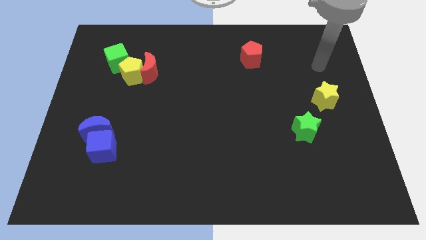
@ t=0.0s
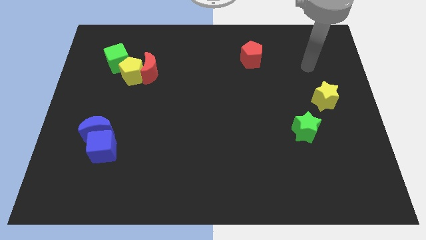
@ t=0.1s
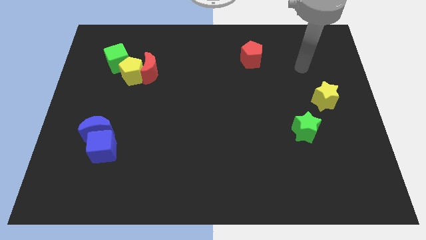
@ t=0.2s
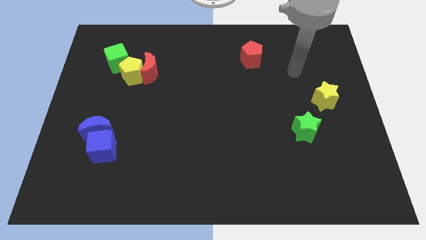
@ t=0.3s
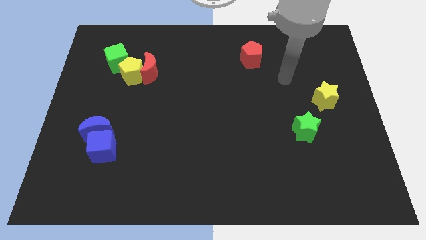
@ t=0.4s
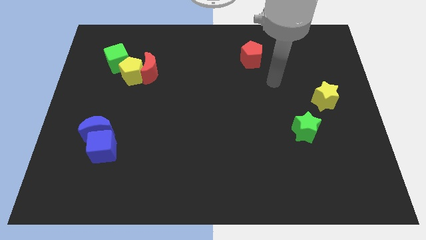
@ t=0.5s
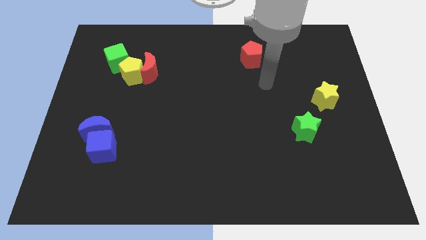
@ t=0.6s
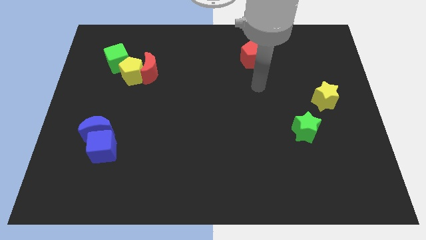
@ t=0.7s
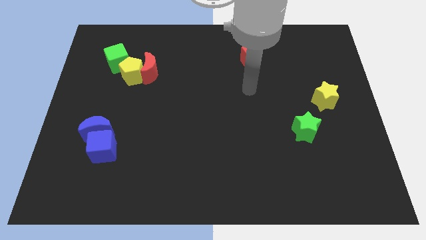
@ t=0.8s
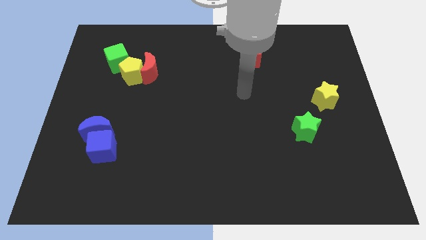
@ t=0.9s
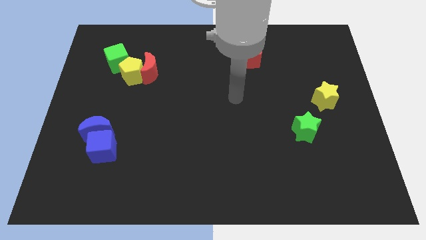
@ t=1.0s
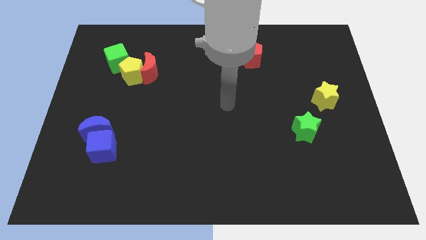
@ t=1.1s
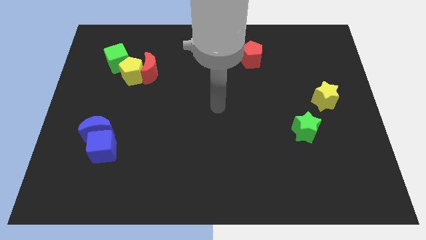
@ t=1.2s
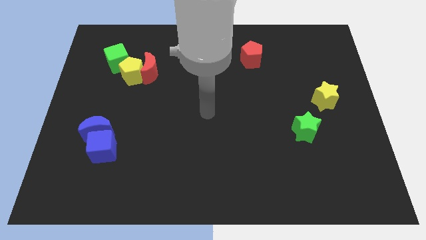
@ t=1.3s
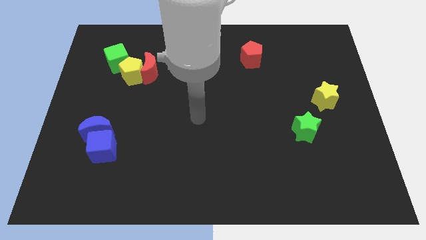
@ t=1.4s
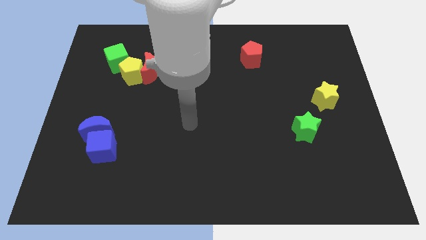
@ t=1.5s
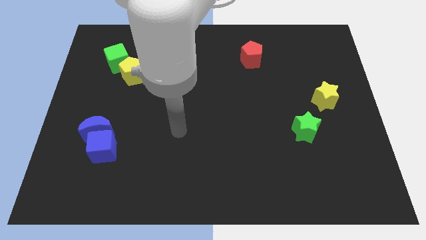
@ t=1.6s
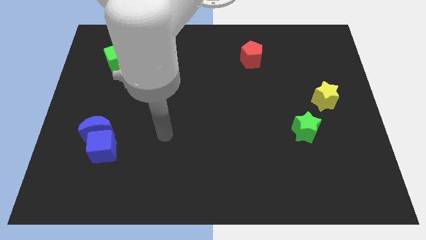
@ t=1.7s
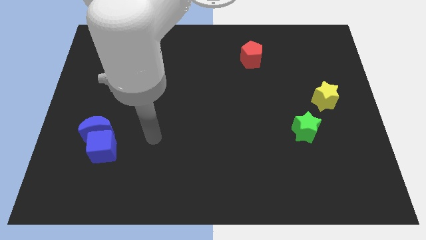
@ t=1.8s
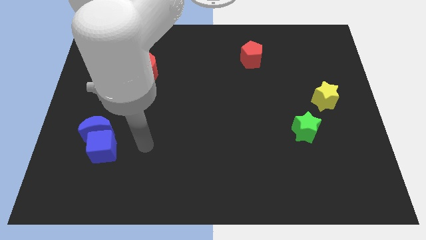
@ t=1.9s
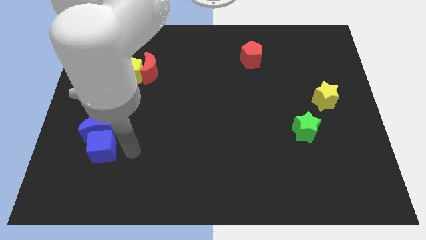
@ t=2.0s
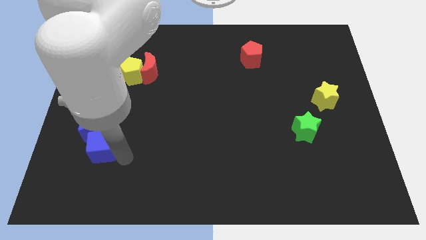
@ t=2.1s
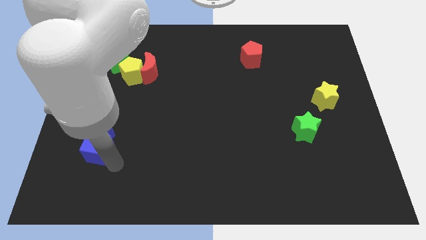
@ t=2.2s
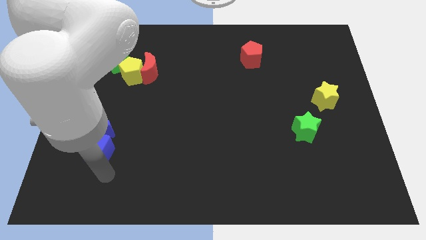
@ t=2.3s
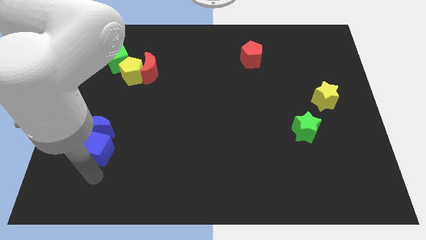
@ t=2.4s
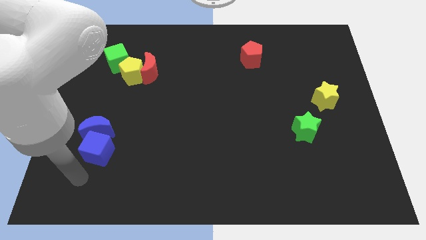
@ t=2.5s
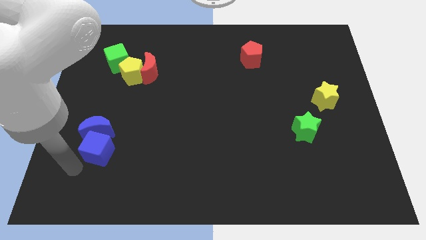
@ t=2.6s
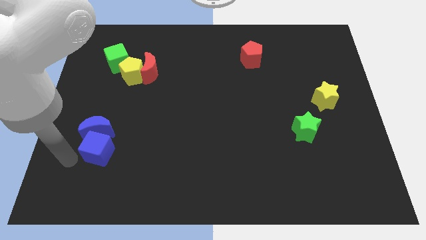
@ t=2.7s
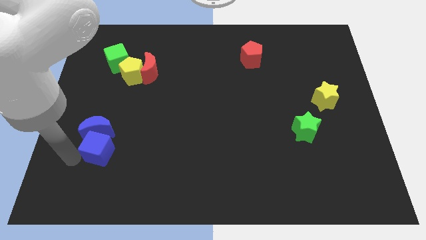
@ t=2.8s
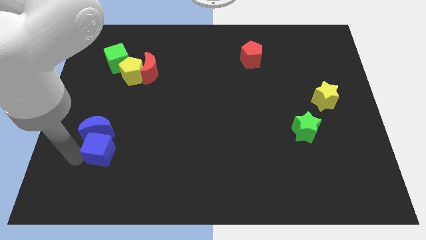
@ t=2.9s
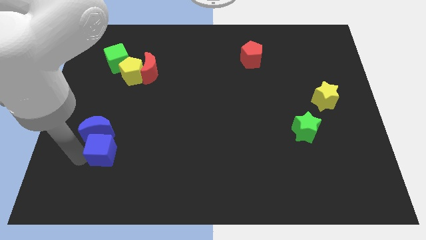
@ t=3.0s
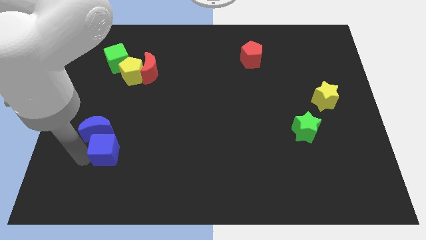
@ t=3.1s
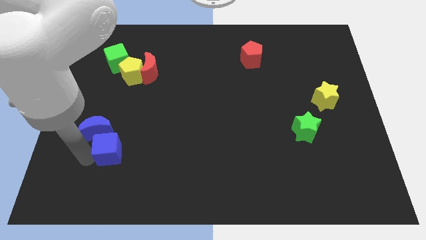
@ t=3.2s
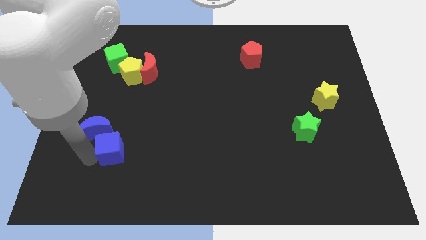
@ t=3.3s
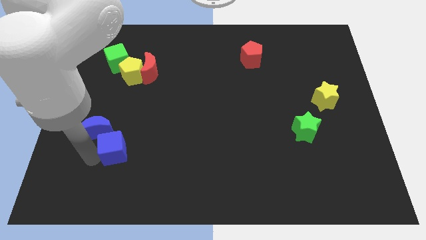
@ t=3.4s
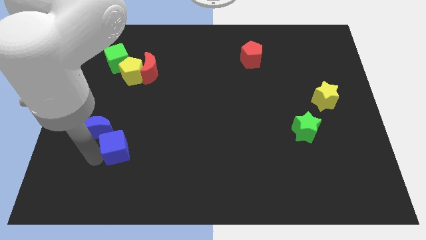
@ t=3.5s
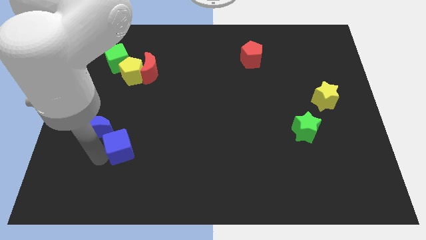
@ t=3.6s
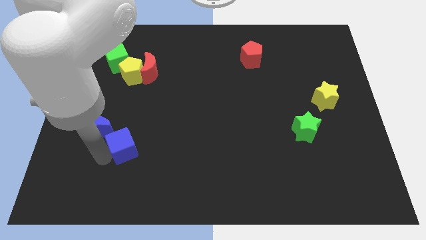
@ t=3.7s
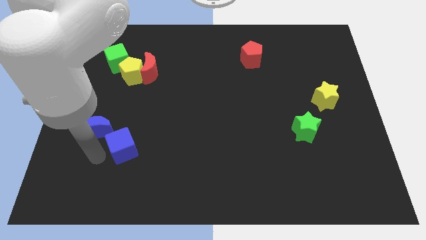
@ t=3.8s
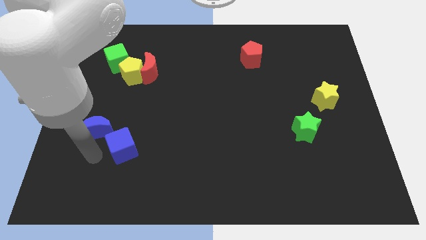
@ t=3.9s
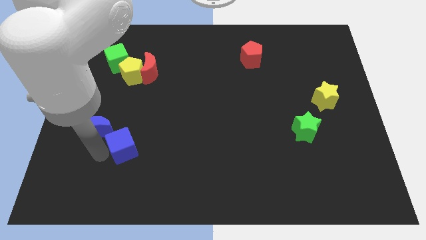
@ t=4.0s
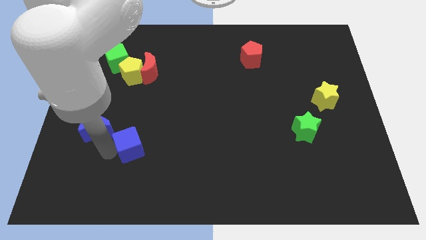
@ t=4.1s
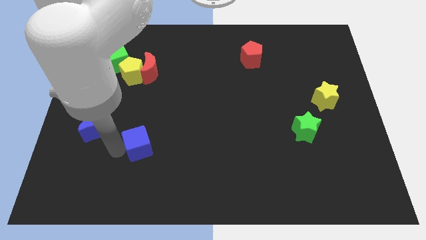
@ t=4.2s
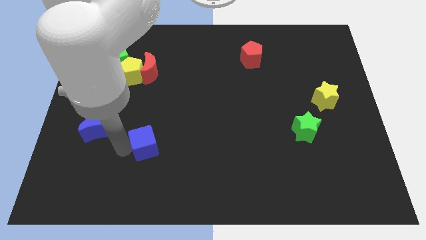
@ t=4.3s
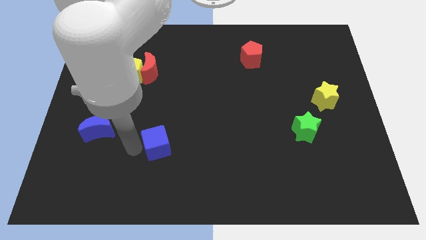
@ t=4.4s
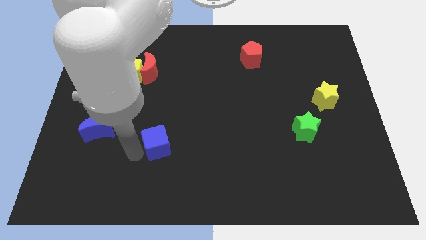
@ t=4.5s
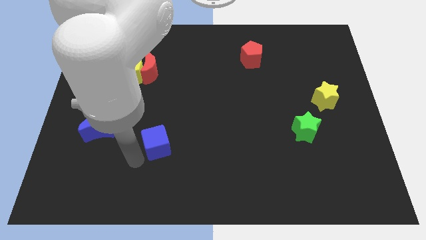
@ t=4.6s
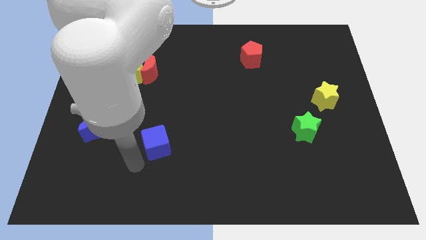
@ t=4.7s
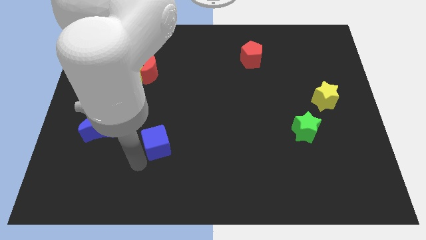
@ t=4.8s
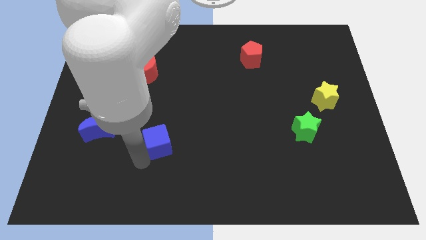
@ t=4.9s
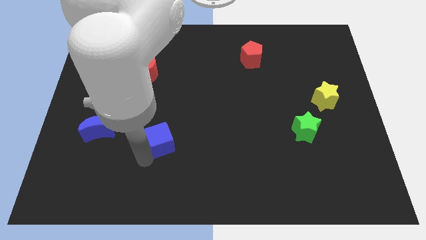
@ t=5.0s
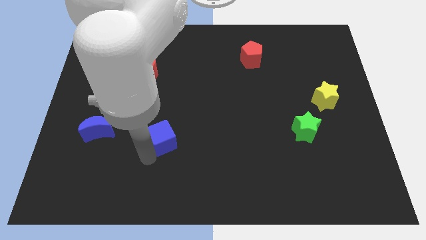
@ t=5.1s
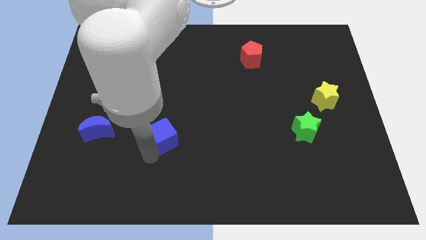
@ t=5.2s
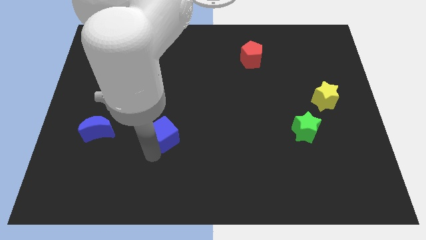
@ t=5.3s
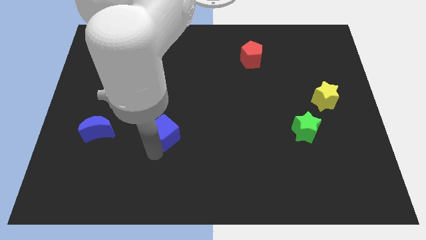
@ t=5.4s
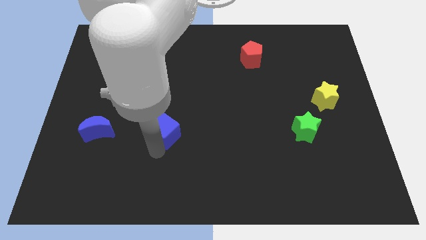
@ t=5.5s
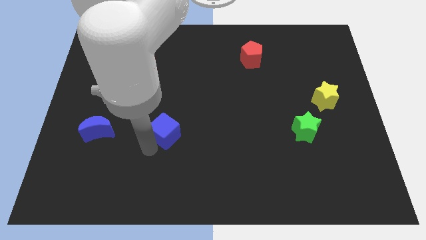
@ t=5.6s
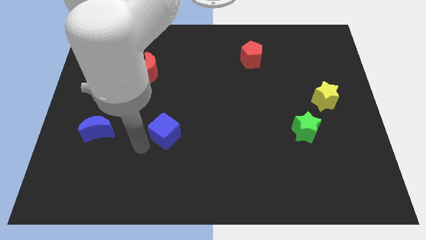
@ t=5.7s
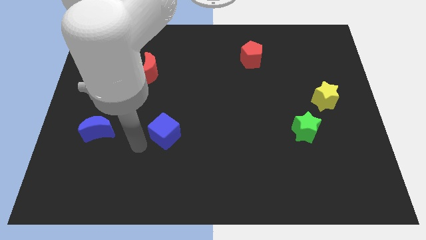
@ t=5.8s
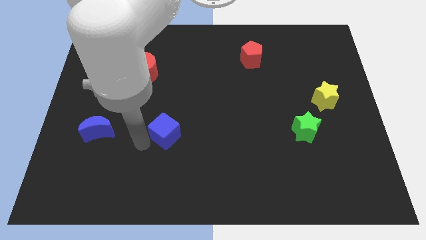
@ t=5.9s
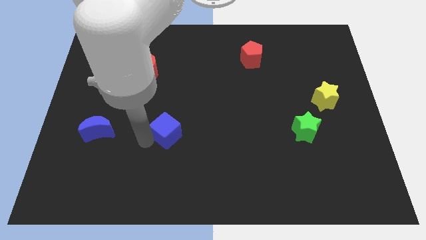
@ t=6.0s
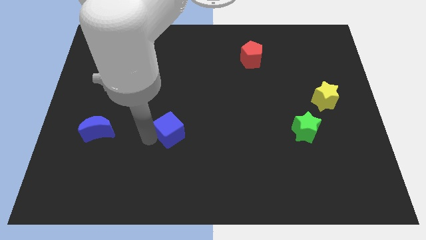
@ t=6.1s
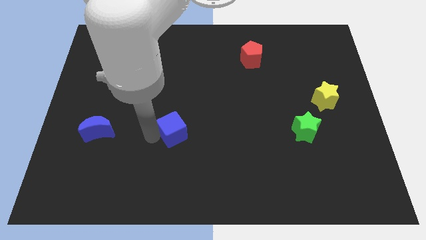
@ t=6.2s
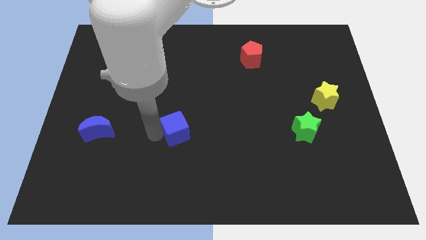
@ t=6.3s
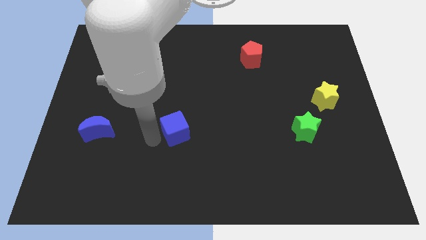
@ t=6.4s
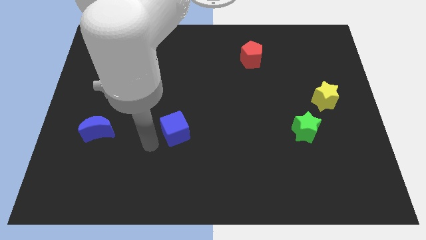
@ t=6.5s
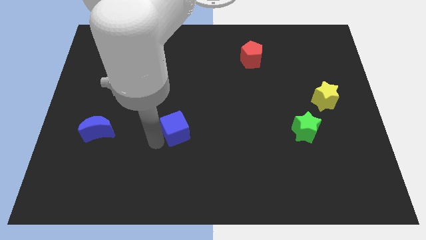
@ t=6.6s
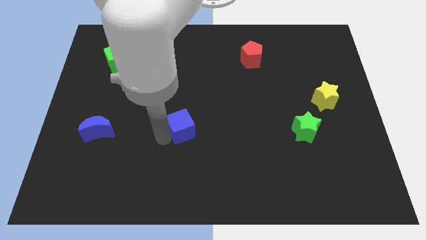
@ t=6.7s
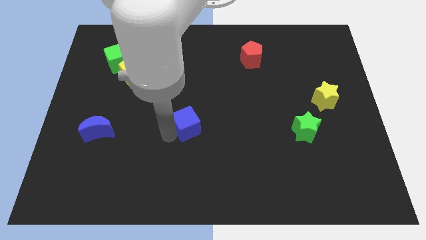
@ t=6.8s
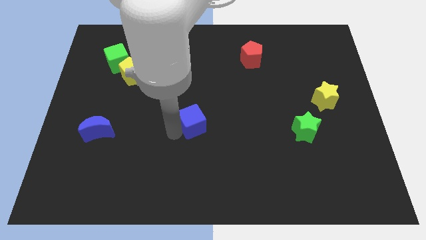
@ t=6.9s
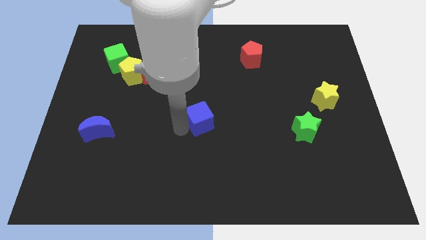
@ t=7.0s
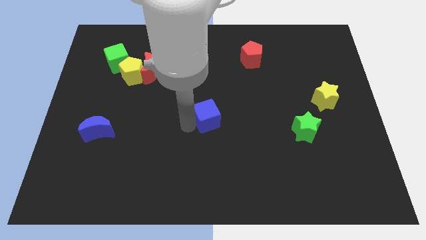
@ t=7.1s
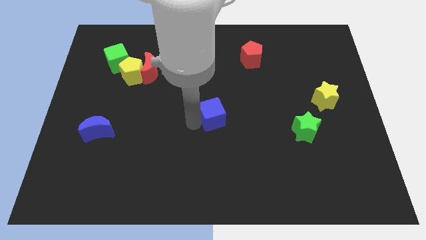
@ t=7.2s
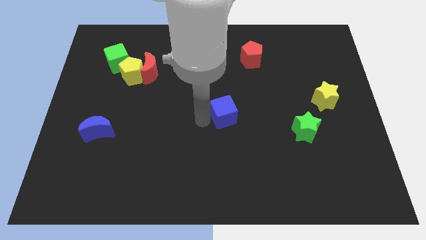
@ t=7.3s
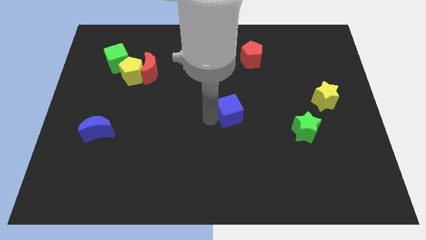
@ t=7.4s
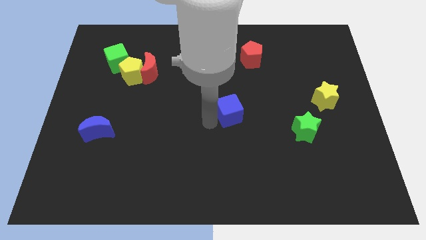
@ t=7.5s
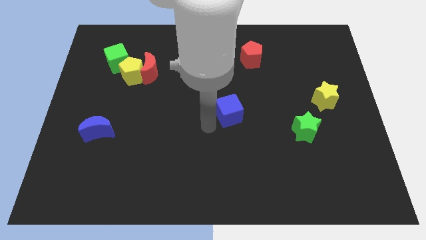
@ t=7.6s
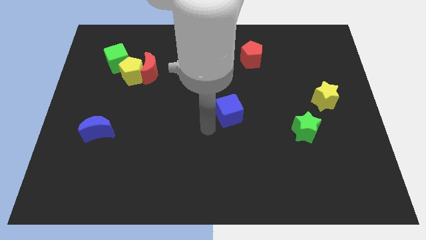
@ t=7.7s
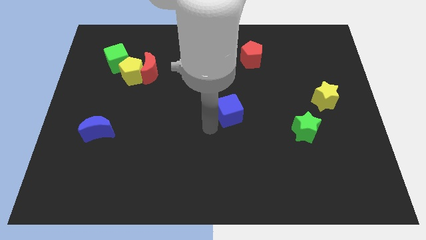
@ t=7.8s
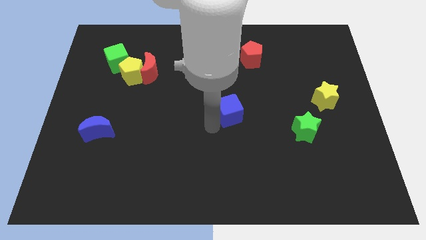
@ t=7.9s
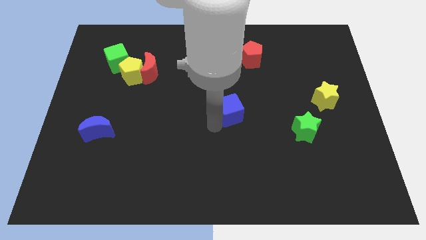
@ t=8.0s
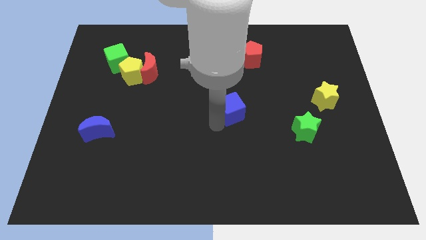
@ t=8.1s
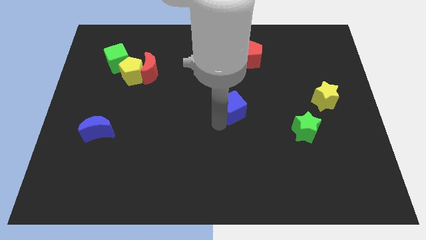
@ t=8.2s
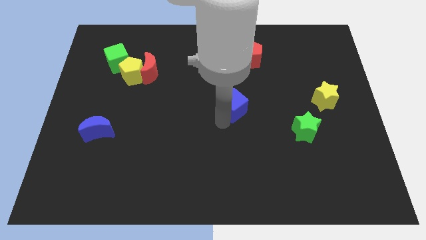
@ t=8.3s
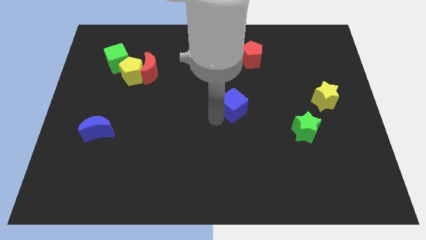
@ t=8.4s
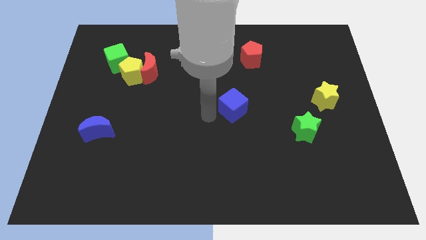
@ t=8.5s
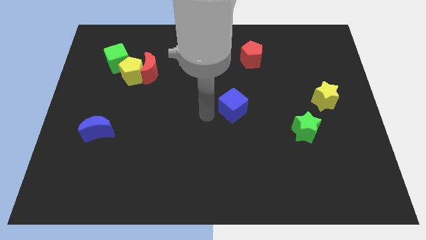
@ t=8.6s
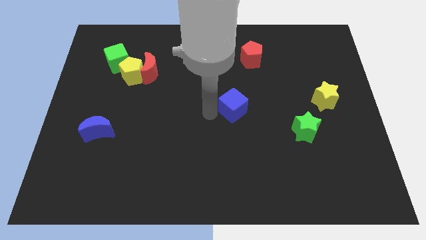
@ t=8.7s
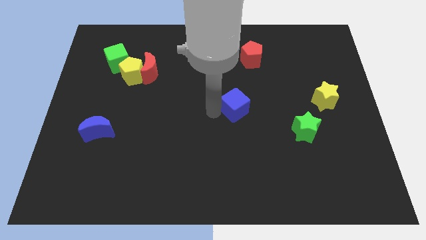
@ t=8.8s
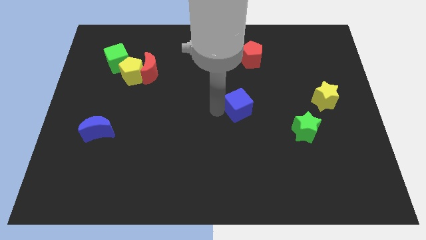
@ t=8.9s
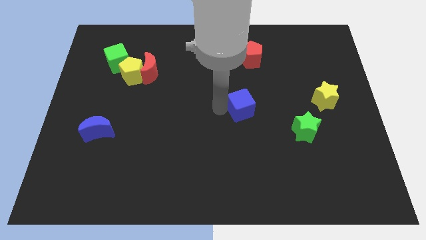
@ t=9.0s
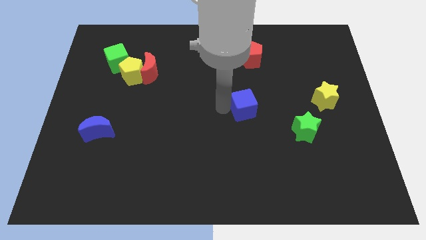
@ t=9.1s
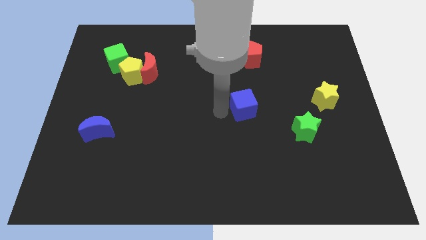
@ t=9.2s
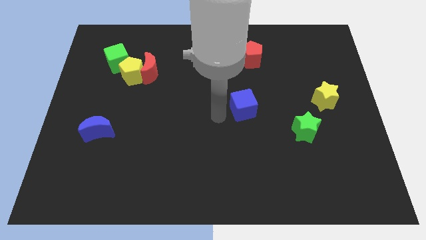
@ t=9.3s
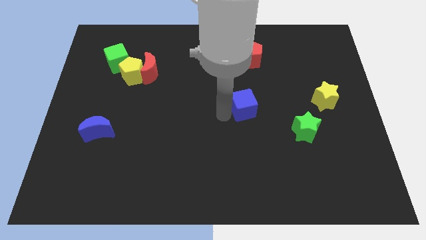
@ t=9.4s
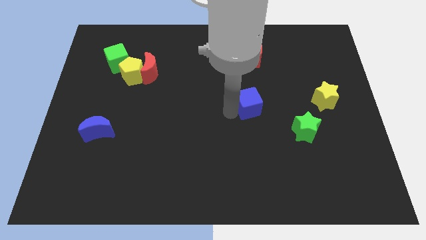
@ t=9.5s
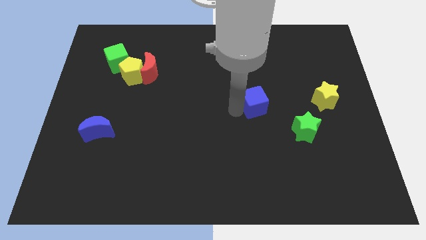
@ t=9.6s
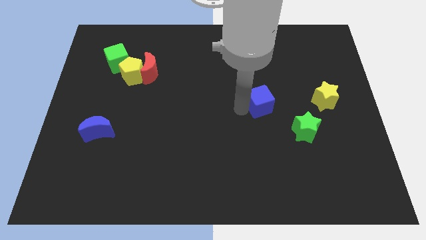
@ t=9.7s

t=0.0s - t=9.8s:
push the blue cube just left of the yellow star
